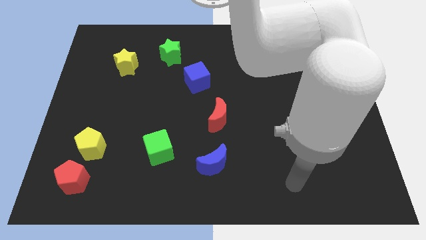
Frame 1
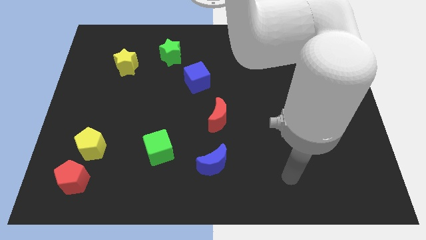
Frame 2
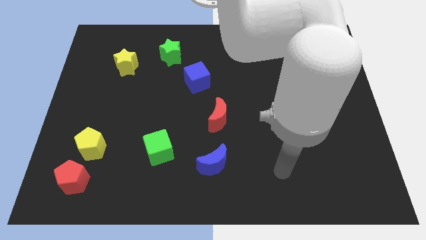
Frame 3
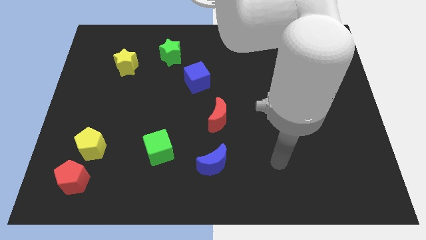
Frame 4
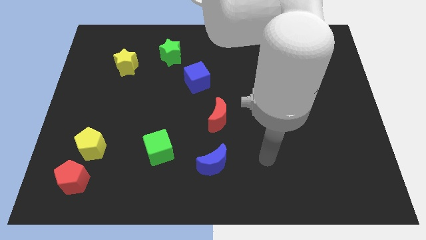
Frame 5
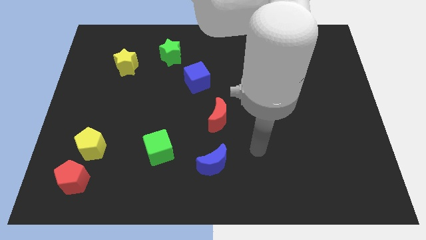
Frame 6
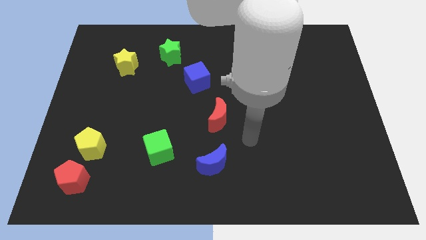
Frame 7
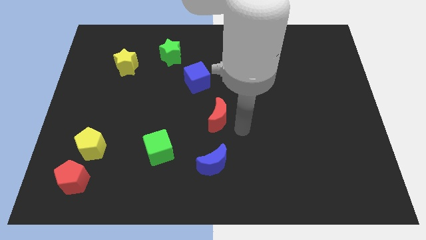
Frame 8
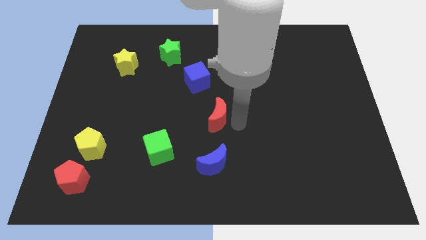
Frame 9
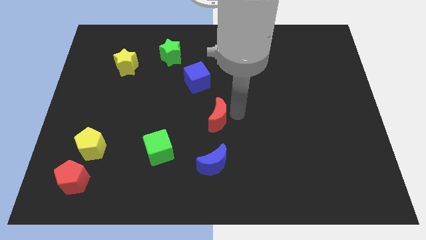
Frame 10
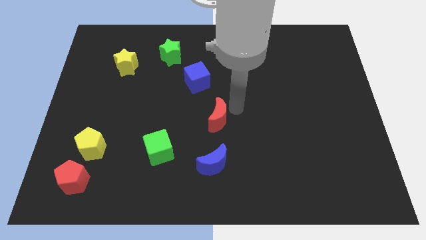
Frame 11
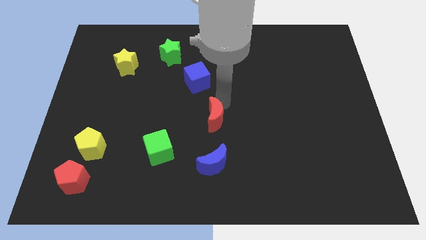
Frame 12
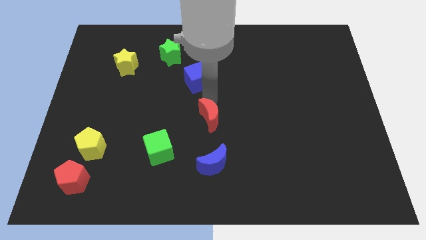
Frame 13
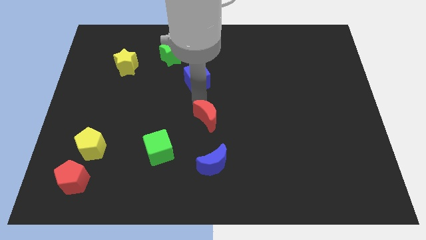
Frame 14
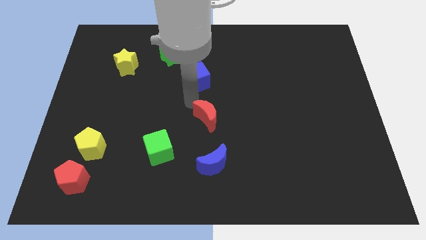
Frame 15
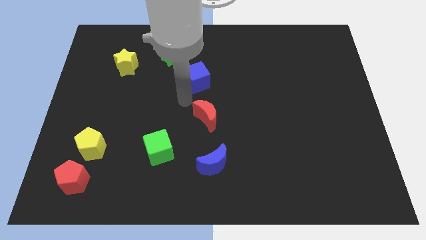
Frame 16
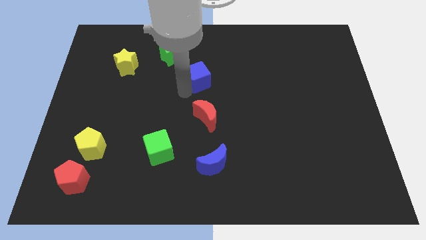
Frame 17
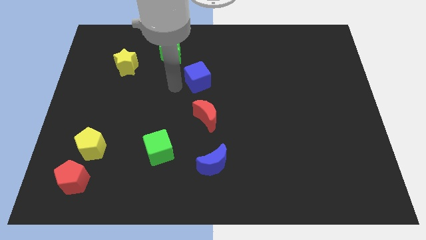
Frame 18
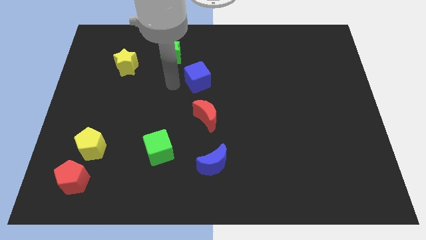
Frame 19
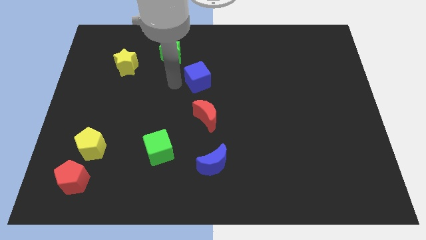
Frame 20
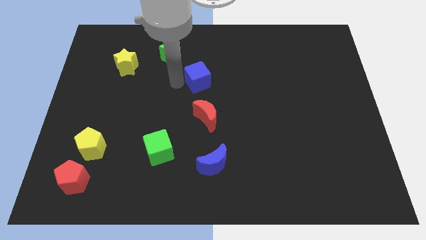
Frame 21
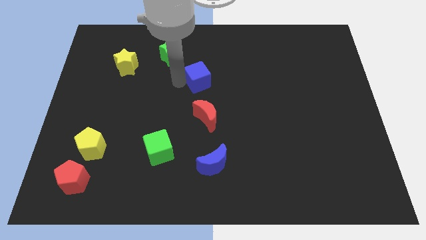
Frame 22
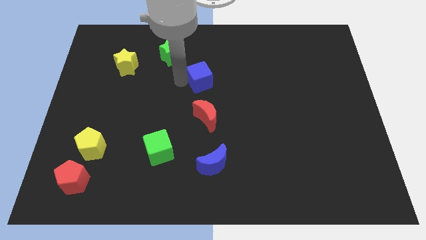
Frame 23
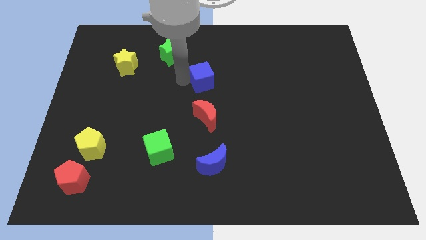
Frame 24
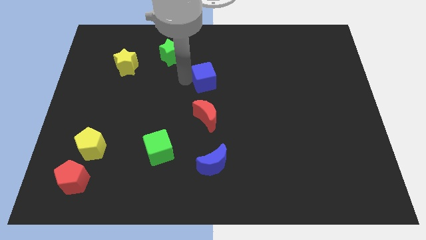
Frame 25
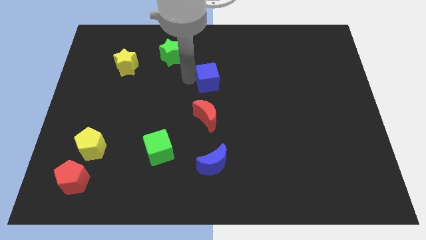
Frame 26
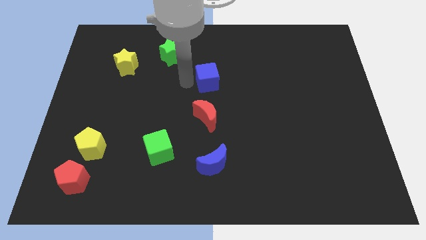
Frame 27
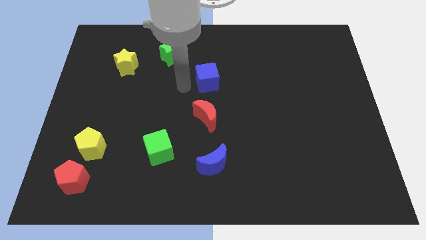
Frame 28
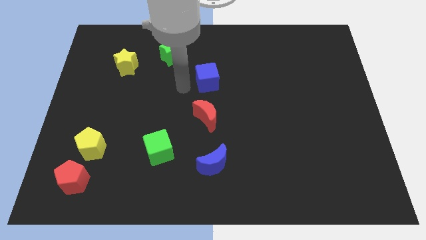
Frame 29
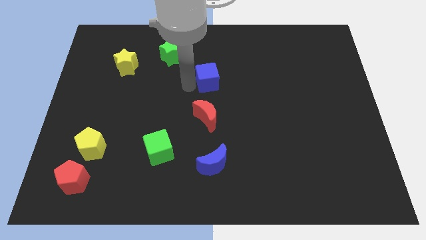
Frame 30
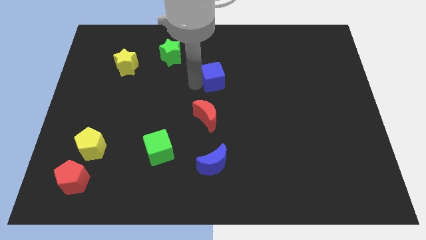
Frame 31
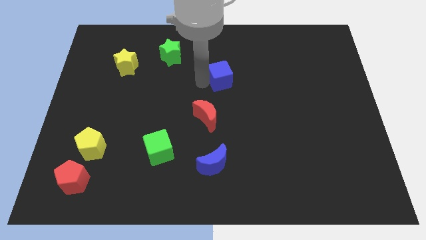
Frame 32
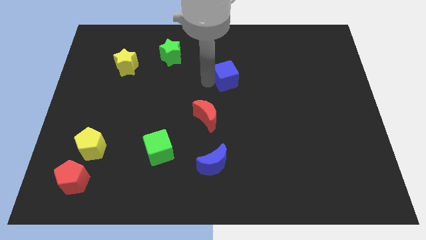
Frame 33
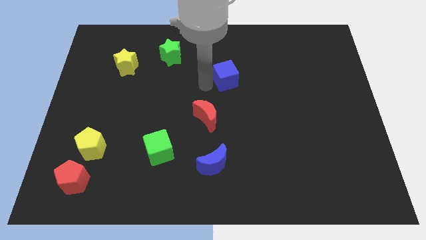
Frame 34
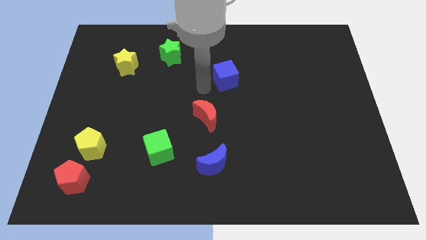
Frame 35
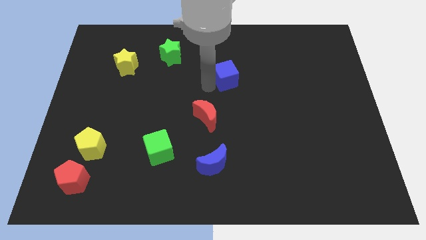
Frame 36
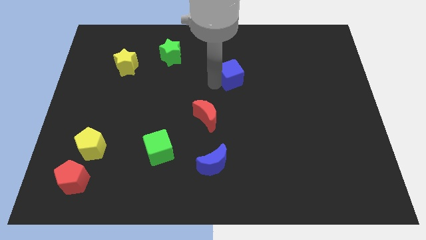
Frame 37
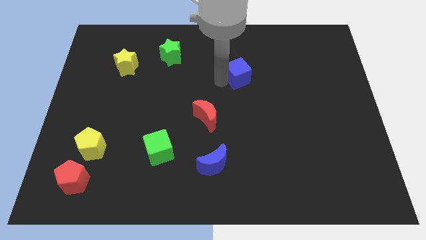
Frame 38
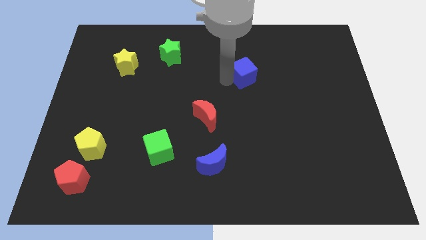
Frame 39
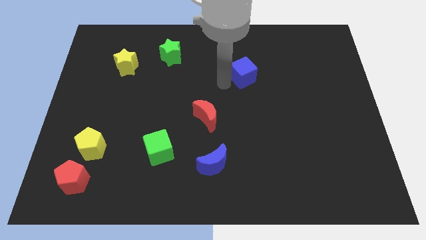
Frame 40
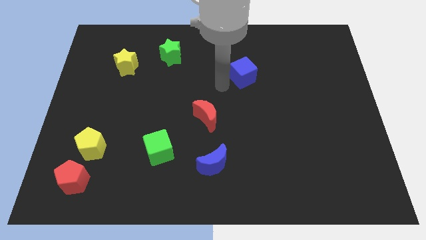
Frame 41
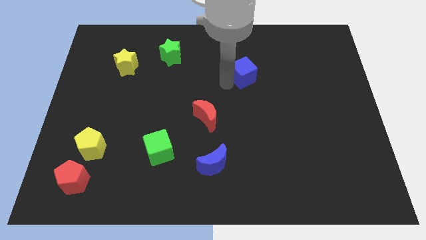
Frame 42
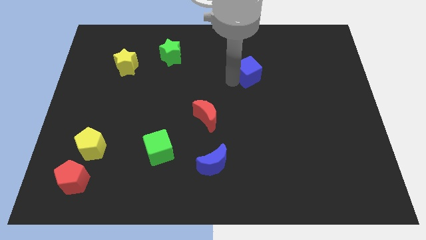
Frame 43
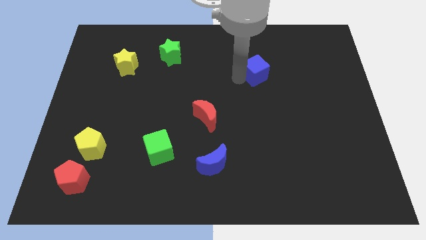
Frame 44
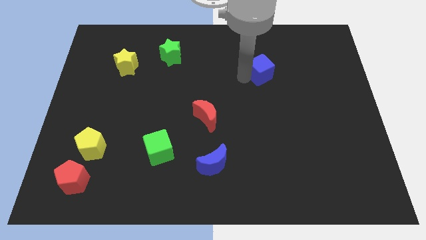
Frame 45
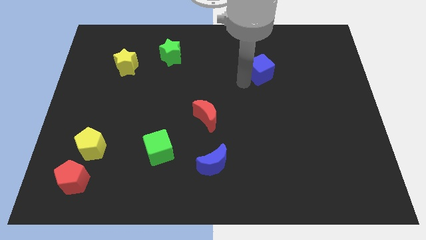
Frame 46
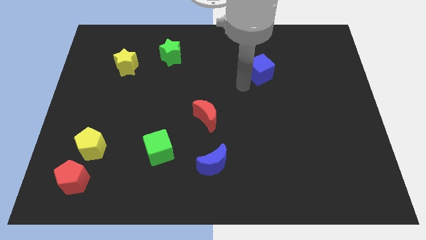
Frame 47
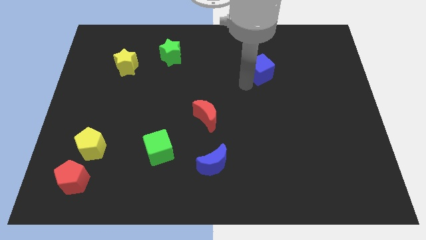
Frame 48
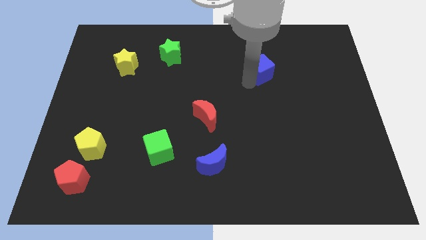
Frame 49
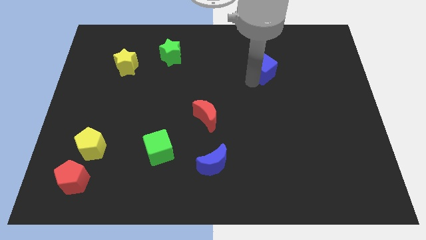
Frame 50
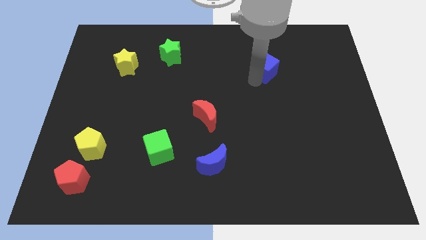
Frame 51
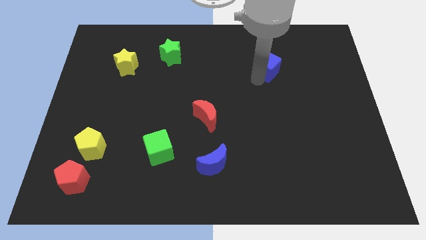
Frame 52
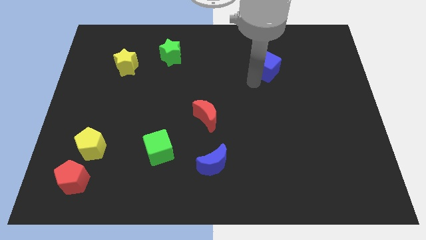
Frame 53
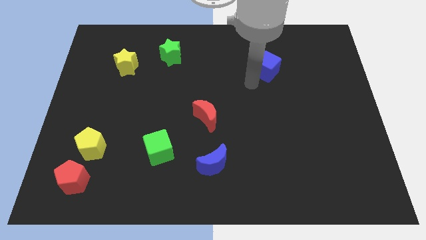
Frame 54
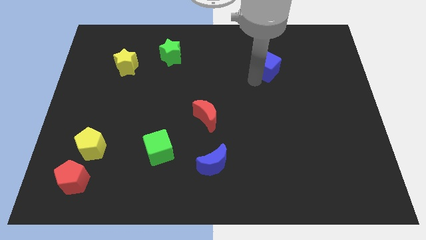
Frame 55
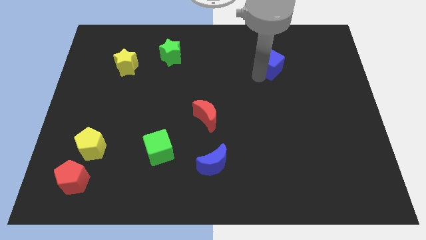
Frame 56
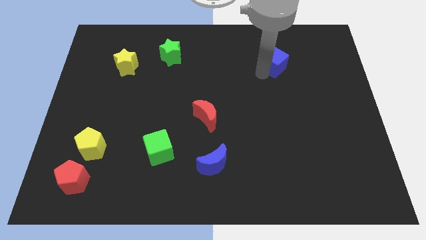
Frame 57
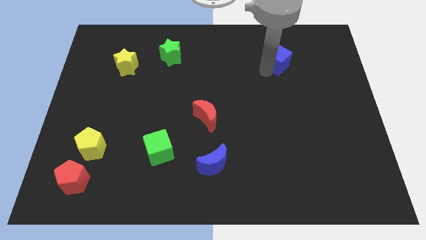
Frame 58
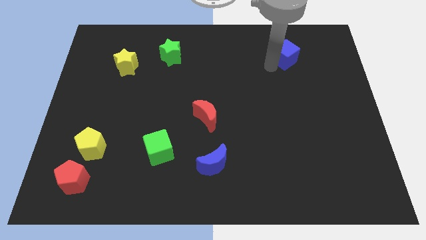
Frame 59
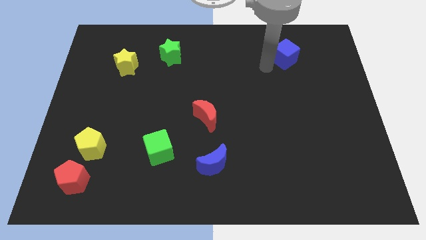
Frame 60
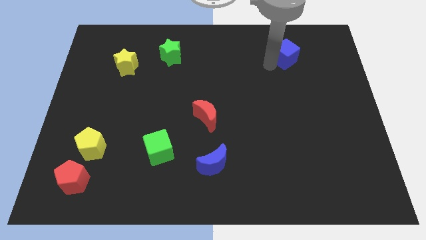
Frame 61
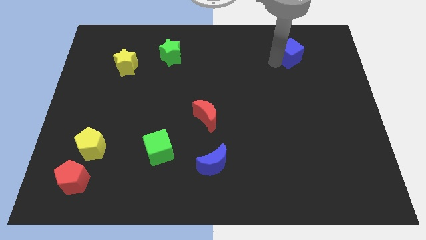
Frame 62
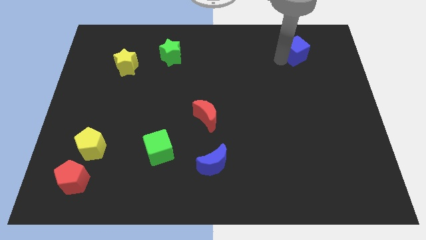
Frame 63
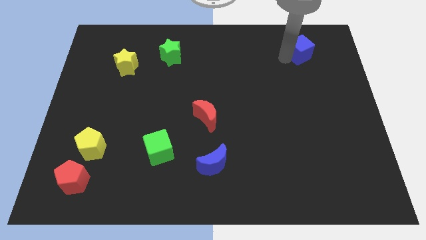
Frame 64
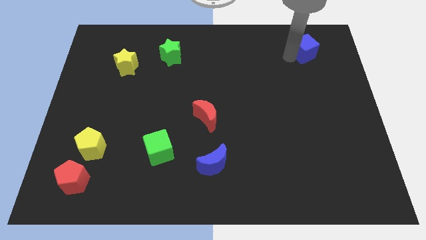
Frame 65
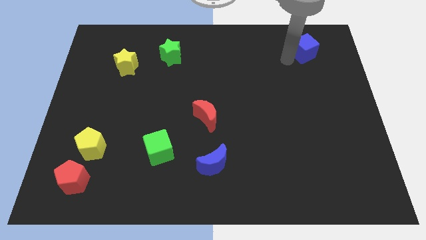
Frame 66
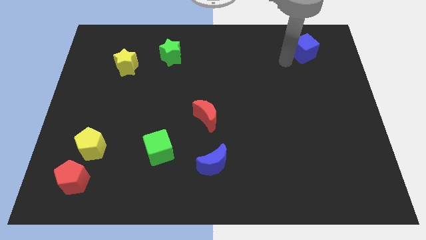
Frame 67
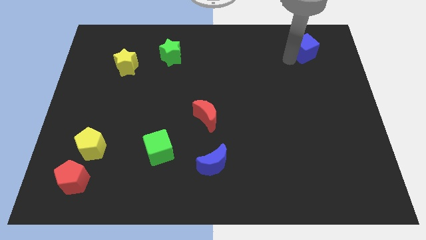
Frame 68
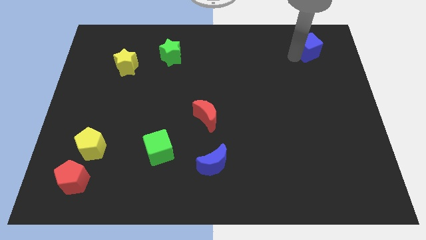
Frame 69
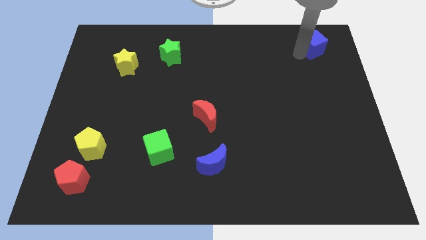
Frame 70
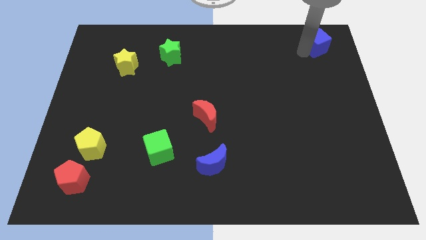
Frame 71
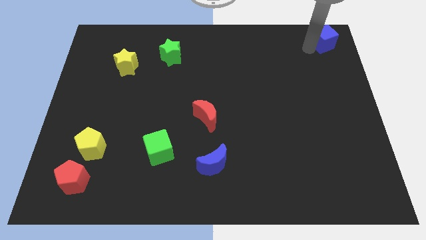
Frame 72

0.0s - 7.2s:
put the blue cube to the upper right corner
